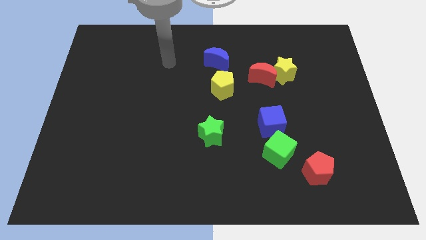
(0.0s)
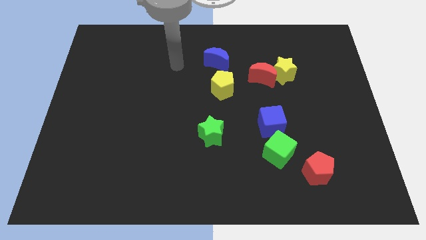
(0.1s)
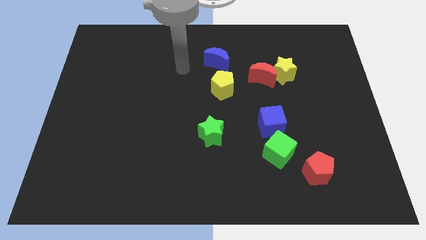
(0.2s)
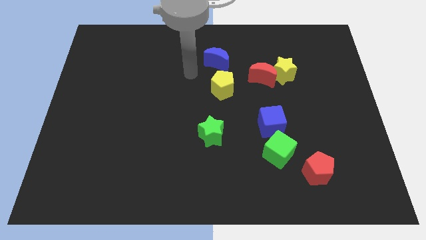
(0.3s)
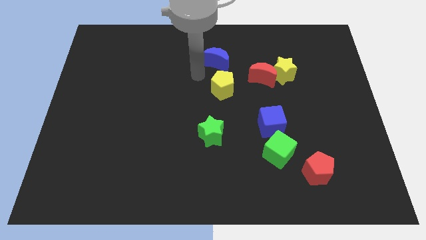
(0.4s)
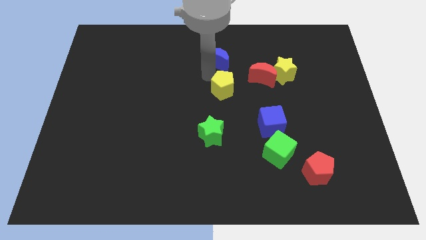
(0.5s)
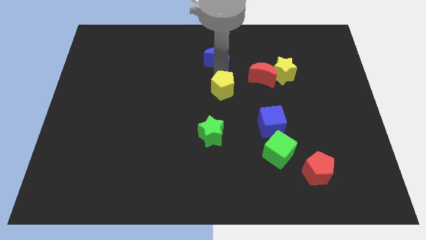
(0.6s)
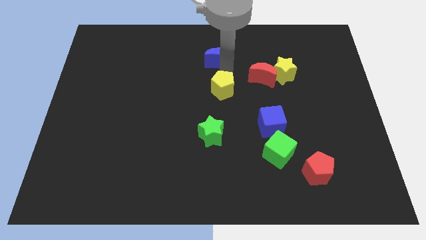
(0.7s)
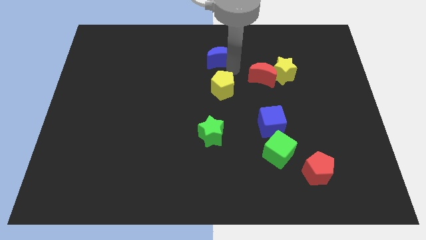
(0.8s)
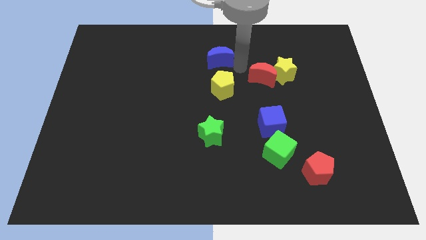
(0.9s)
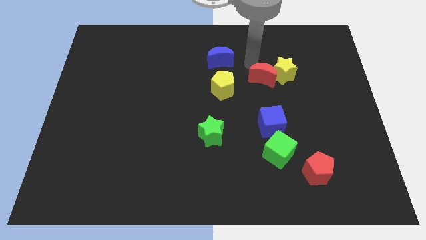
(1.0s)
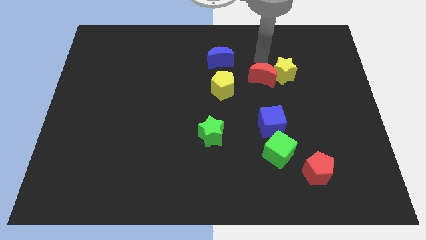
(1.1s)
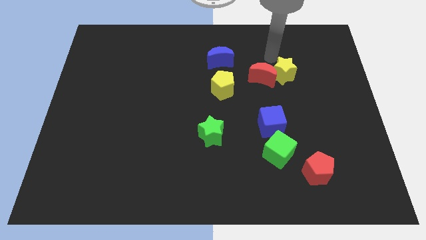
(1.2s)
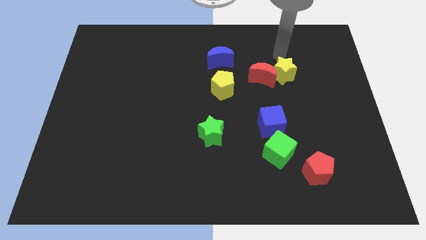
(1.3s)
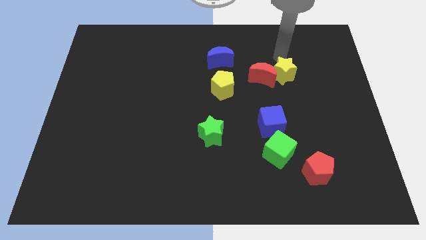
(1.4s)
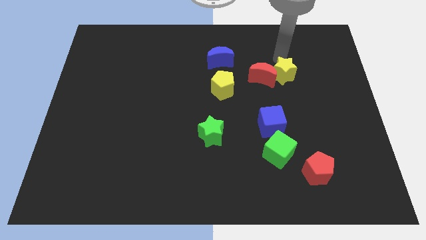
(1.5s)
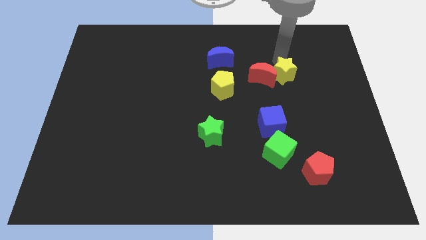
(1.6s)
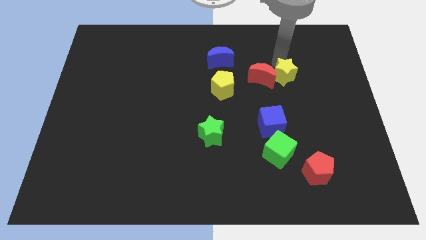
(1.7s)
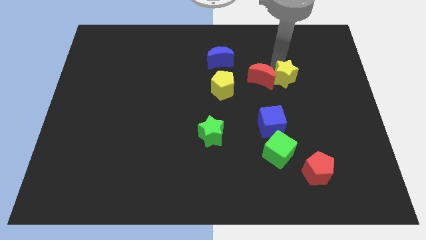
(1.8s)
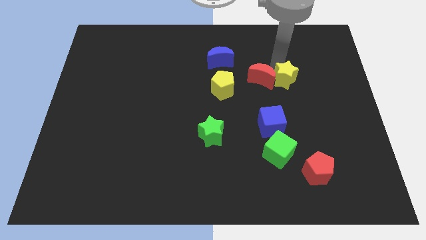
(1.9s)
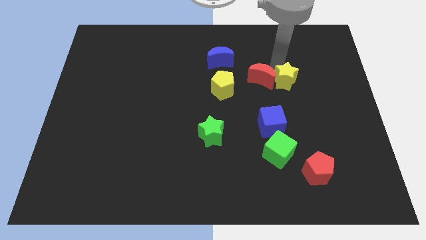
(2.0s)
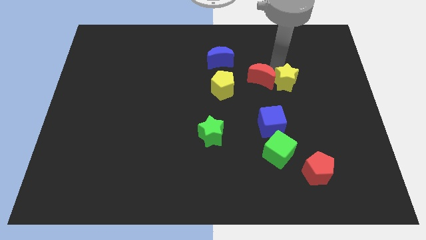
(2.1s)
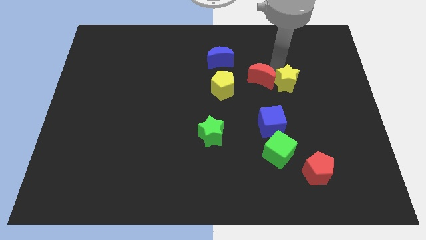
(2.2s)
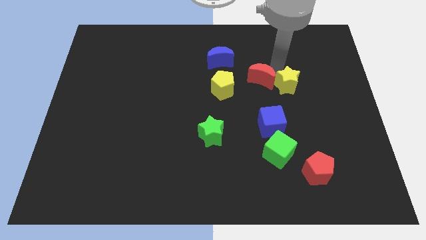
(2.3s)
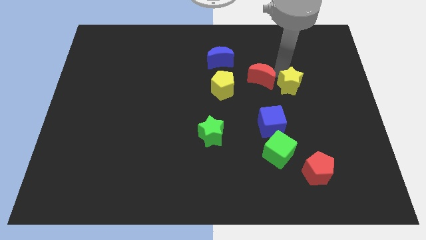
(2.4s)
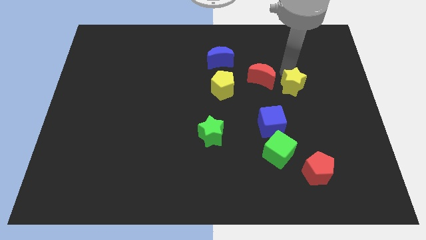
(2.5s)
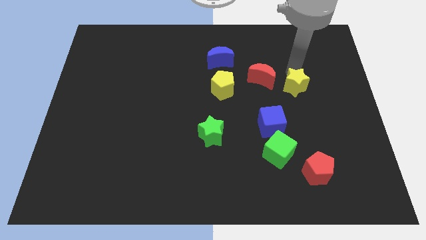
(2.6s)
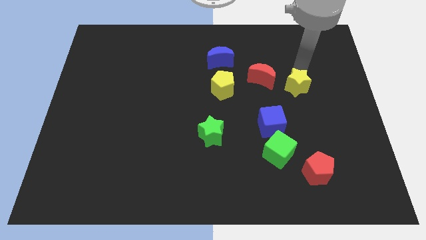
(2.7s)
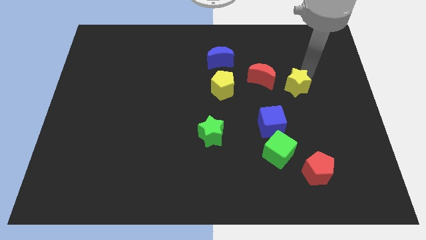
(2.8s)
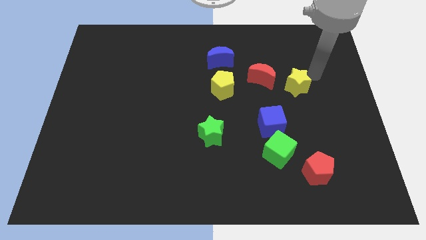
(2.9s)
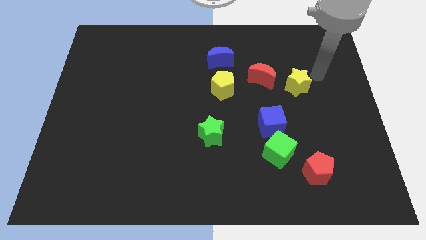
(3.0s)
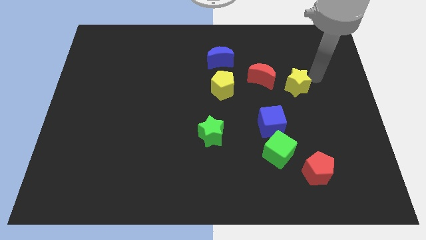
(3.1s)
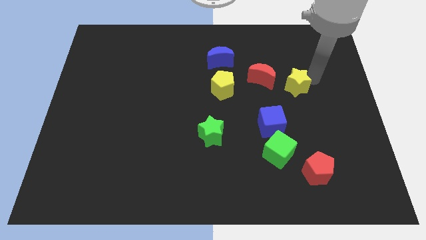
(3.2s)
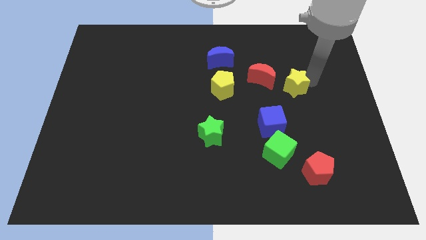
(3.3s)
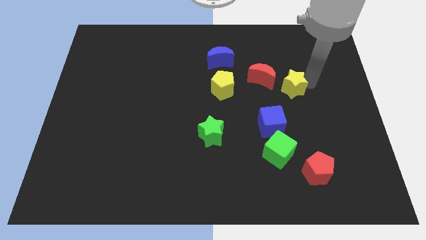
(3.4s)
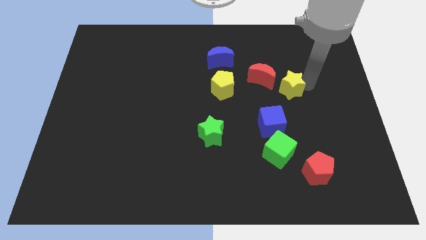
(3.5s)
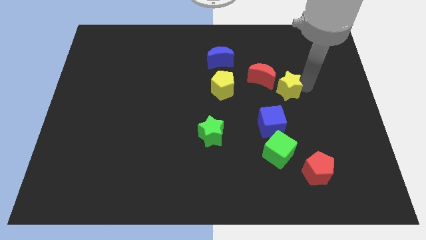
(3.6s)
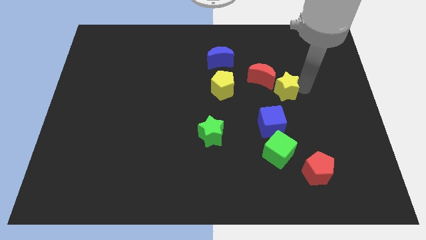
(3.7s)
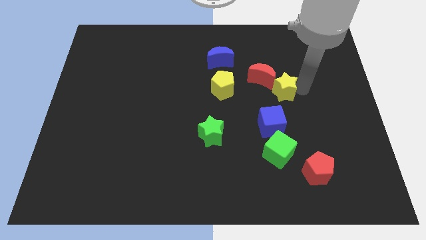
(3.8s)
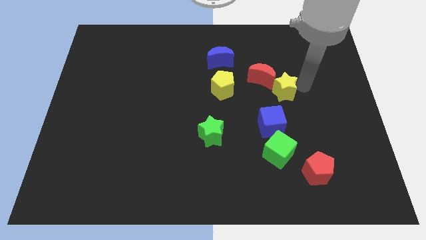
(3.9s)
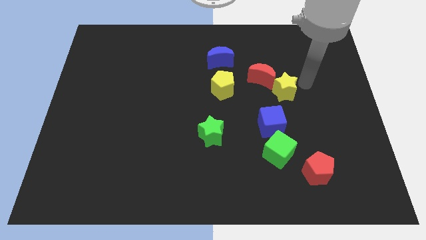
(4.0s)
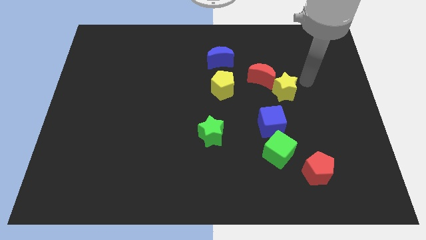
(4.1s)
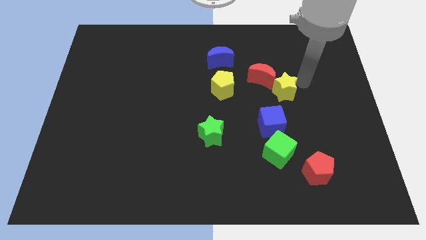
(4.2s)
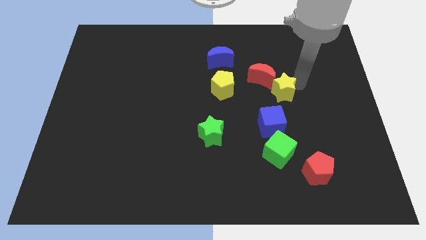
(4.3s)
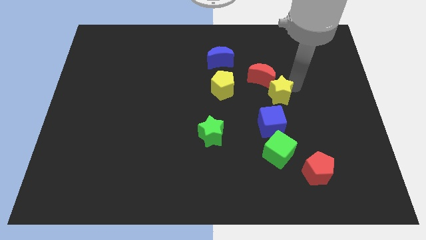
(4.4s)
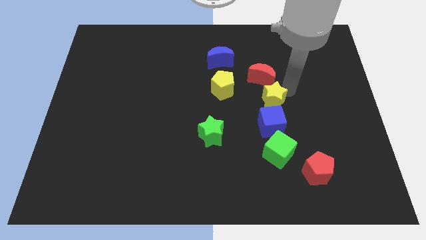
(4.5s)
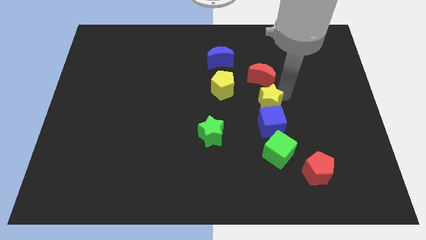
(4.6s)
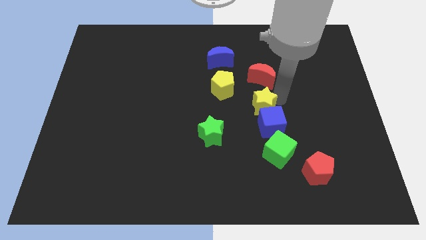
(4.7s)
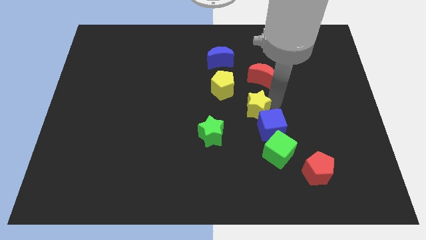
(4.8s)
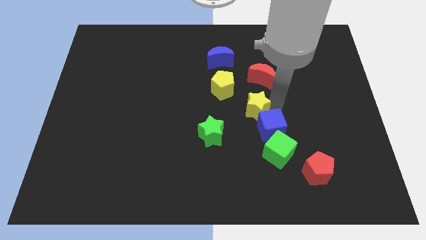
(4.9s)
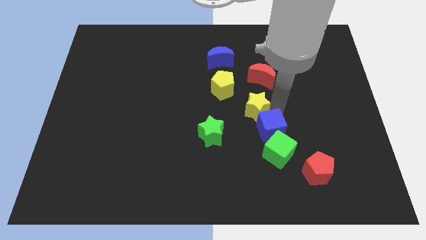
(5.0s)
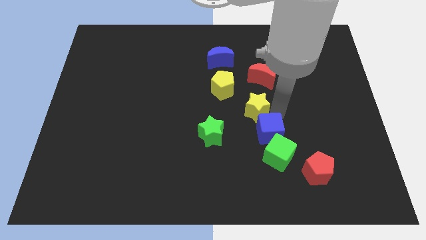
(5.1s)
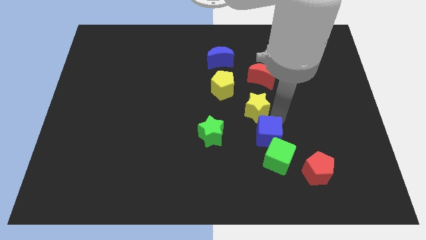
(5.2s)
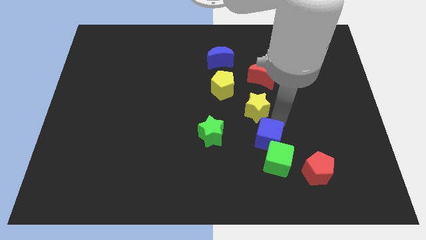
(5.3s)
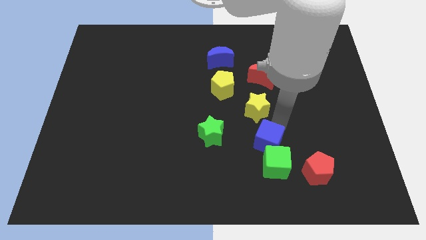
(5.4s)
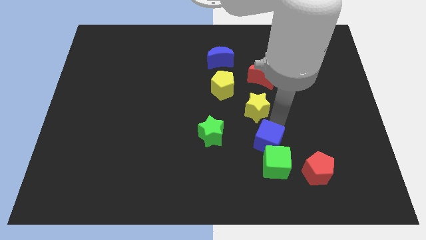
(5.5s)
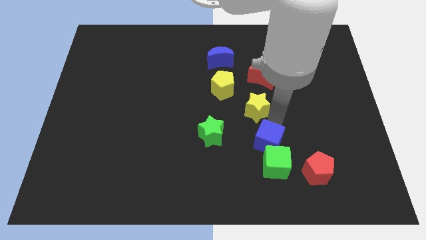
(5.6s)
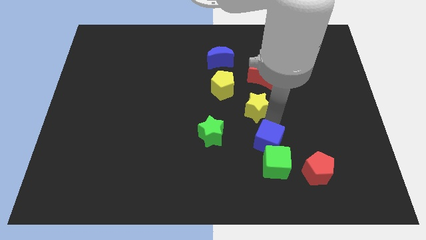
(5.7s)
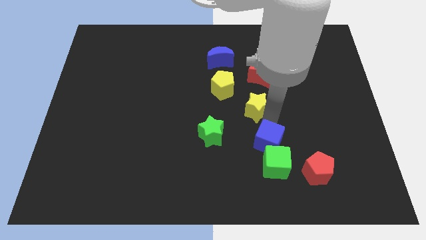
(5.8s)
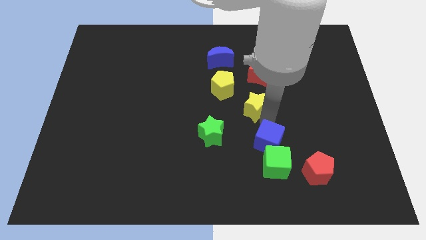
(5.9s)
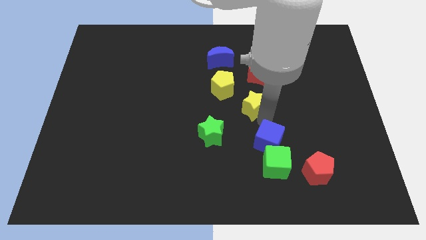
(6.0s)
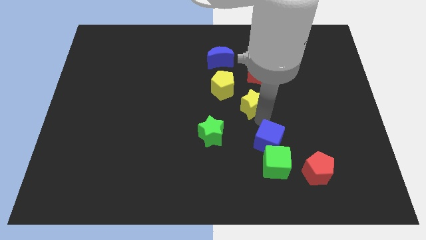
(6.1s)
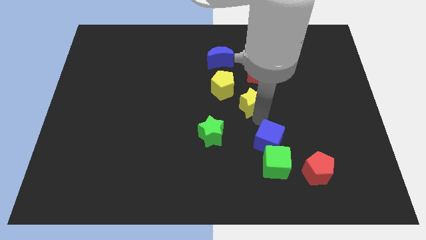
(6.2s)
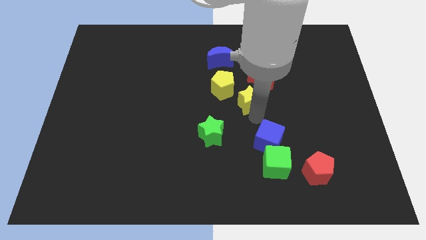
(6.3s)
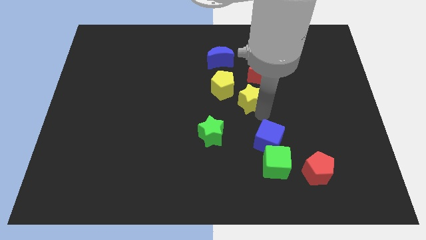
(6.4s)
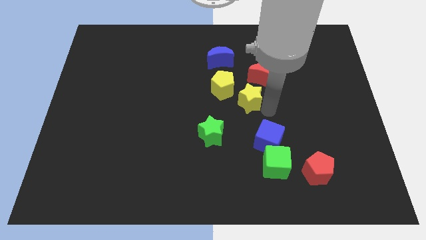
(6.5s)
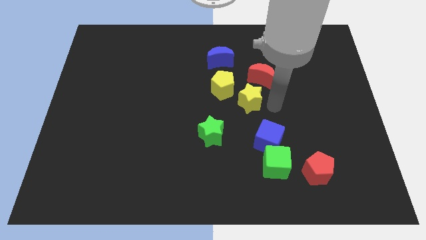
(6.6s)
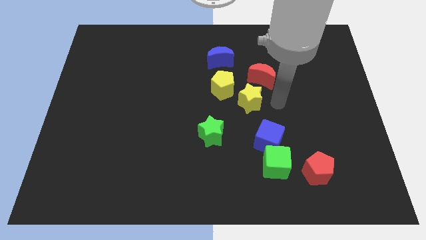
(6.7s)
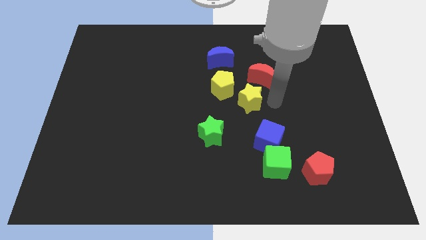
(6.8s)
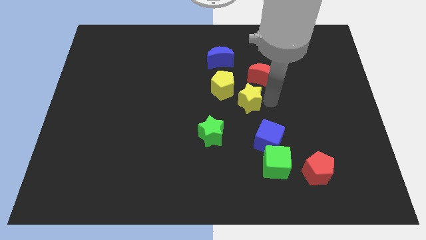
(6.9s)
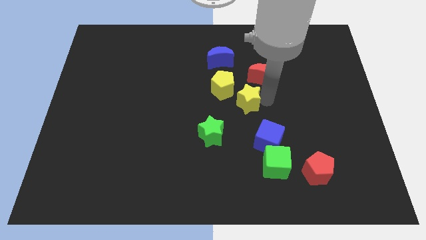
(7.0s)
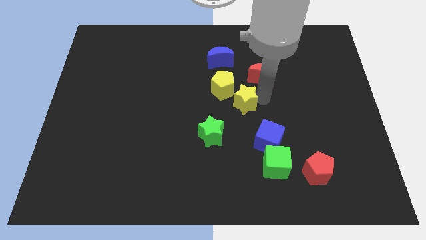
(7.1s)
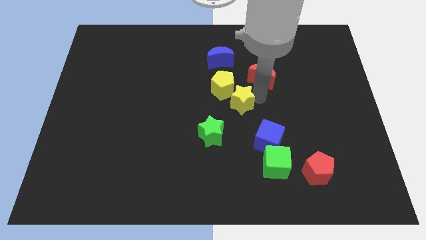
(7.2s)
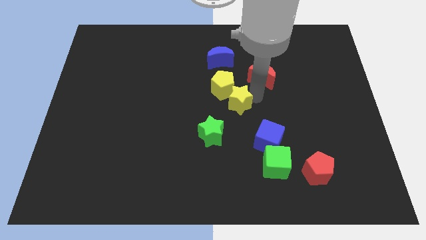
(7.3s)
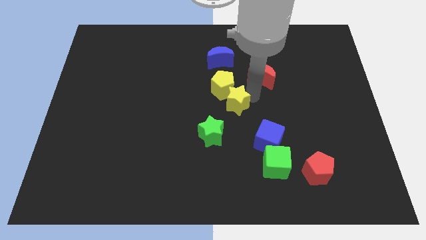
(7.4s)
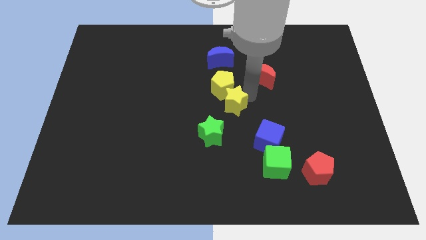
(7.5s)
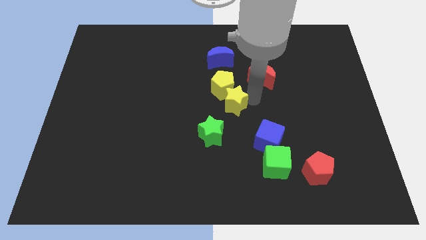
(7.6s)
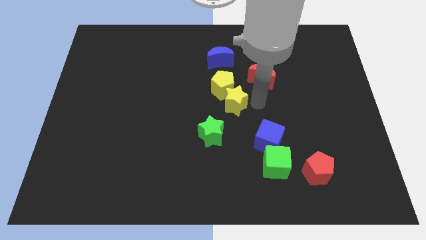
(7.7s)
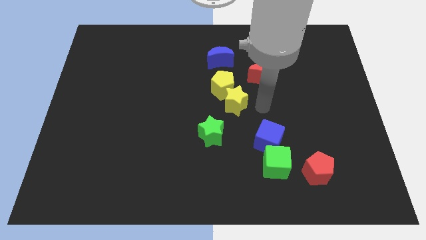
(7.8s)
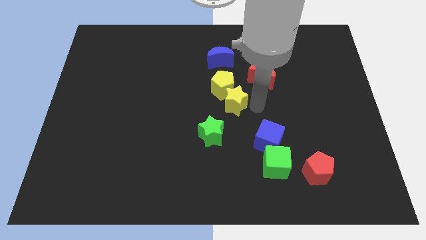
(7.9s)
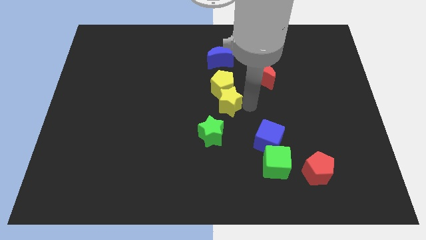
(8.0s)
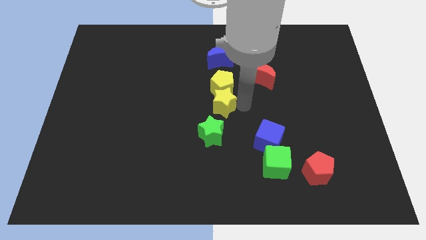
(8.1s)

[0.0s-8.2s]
put the yellow star to the bottom left of the yellow pentagon

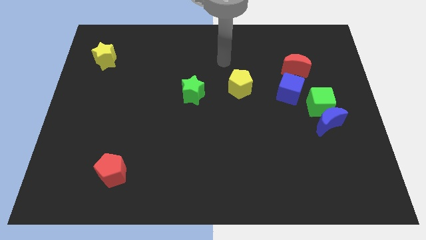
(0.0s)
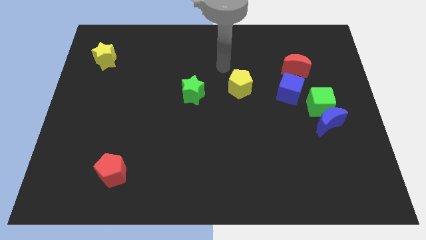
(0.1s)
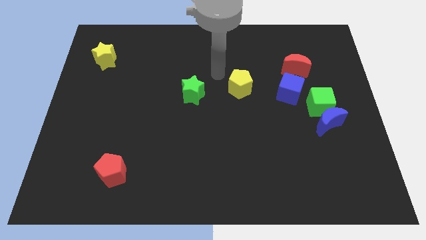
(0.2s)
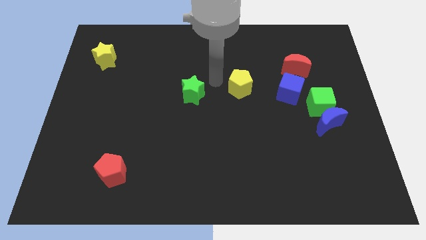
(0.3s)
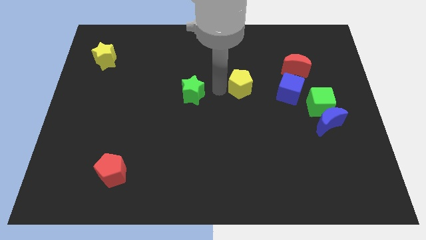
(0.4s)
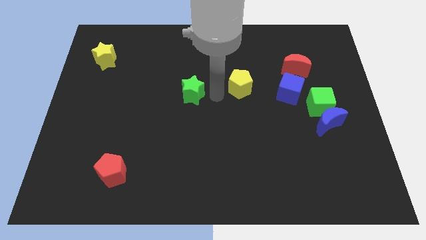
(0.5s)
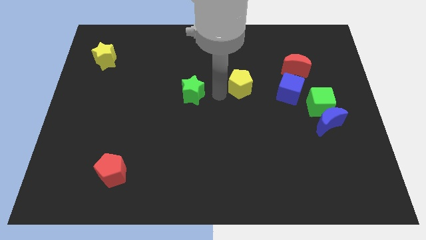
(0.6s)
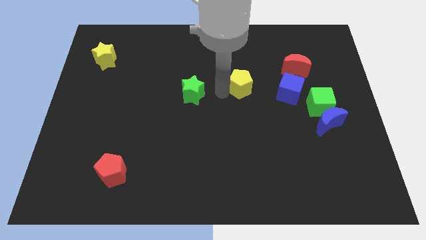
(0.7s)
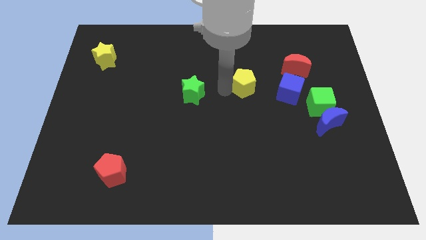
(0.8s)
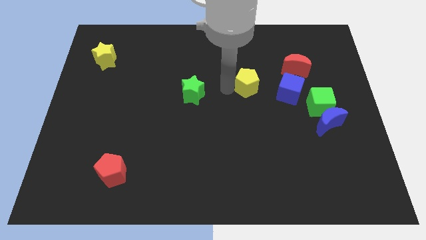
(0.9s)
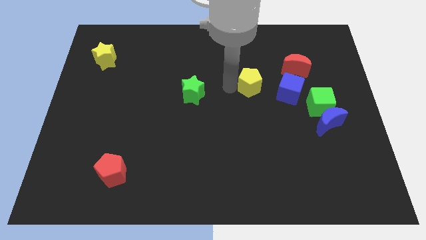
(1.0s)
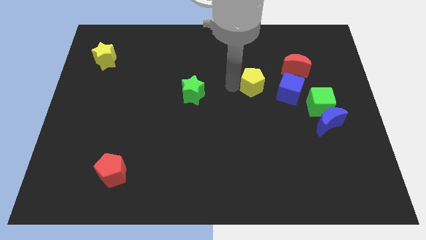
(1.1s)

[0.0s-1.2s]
move the yellow pentagon to the top left side of the blue cube
